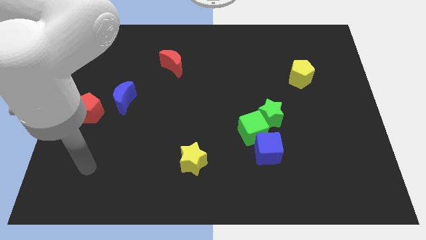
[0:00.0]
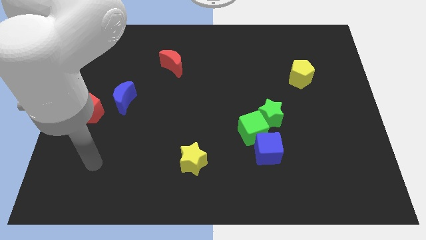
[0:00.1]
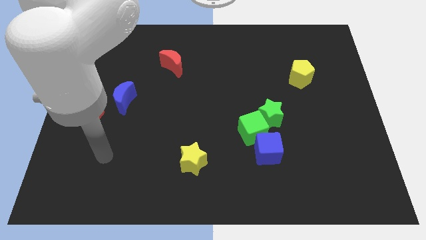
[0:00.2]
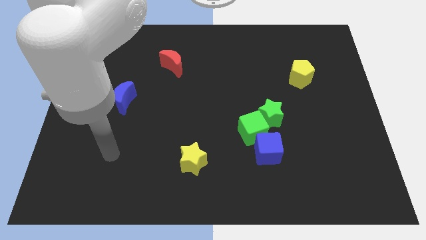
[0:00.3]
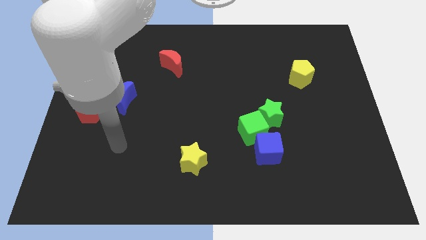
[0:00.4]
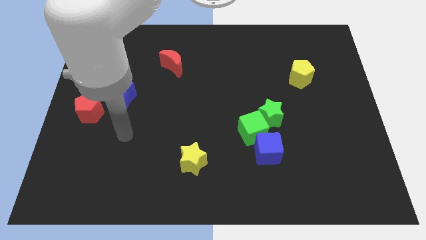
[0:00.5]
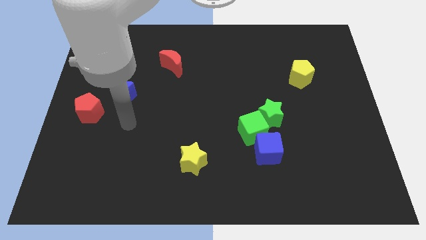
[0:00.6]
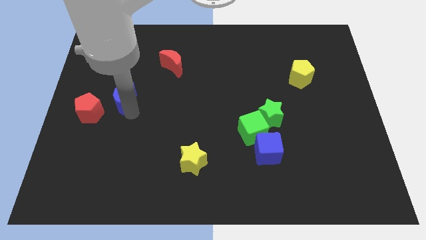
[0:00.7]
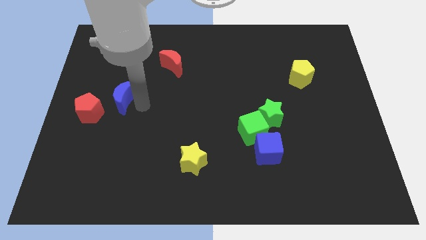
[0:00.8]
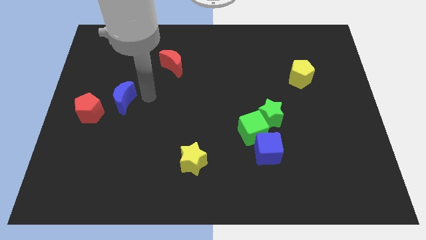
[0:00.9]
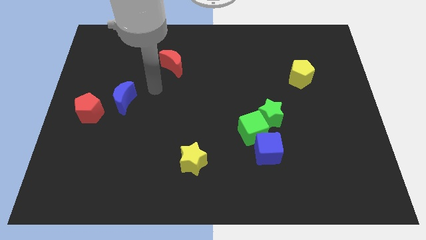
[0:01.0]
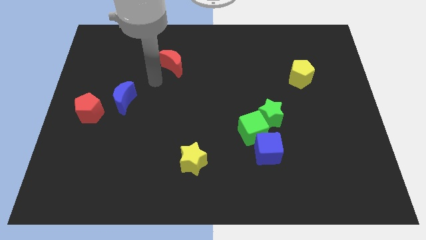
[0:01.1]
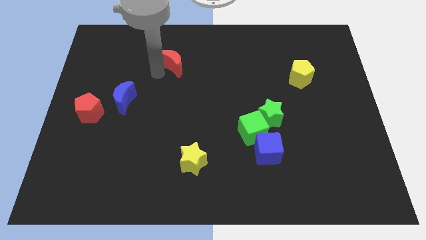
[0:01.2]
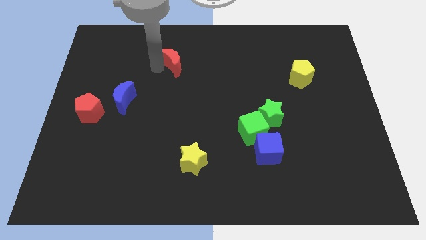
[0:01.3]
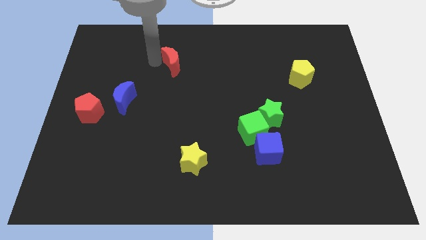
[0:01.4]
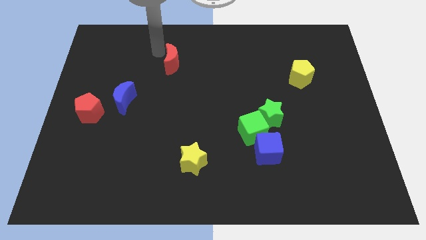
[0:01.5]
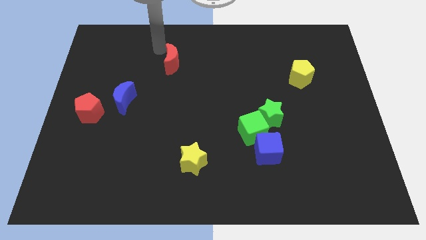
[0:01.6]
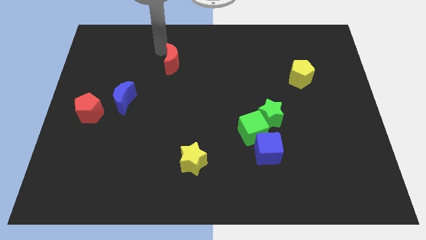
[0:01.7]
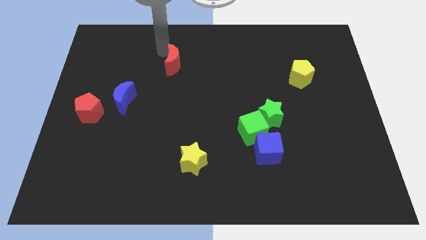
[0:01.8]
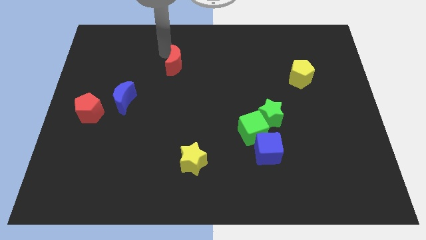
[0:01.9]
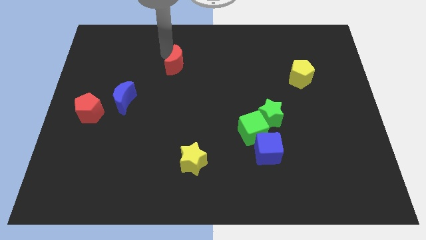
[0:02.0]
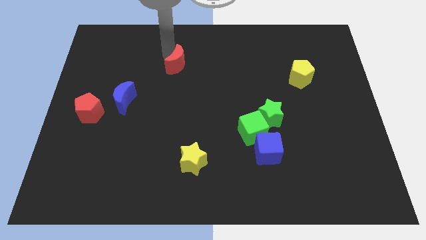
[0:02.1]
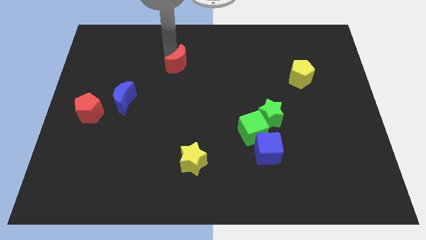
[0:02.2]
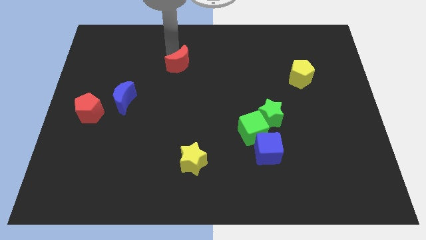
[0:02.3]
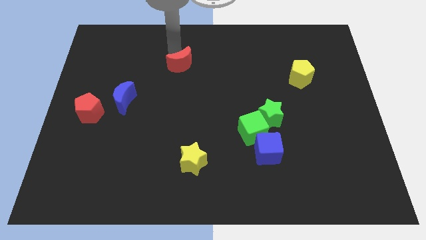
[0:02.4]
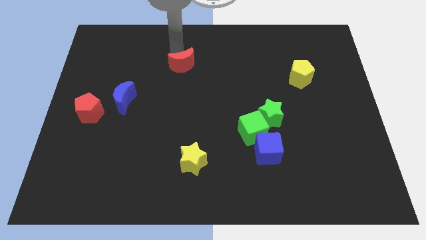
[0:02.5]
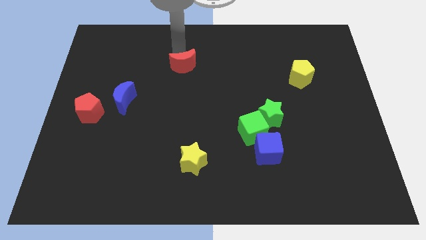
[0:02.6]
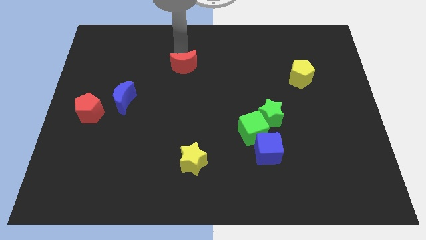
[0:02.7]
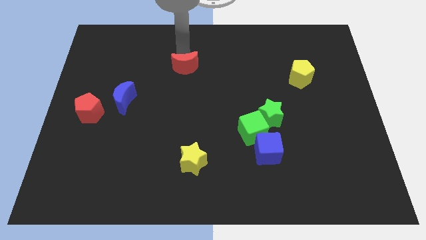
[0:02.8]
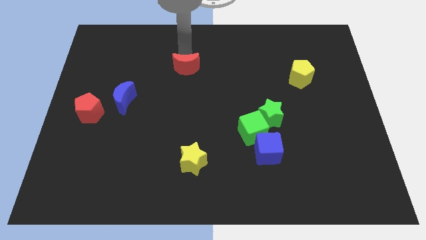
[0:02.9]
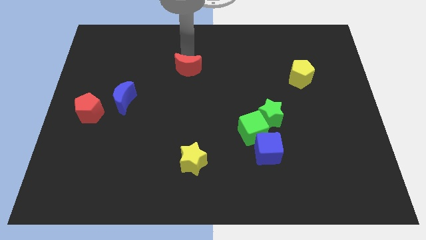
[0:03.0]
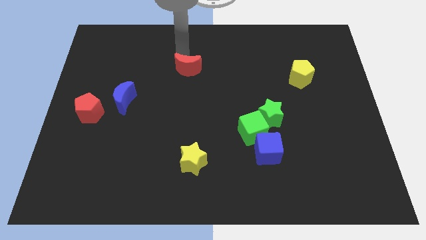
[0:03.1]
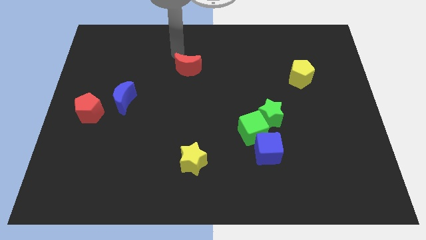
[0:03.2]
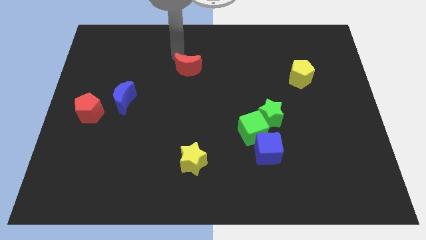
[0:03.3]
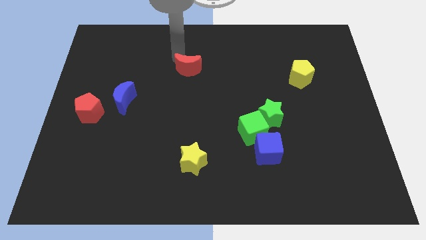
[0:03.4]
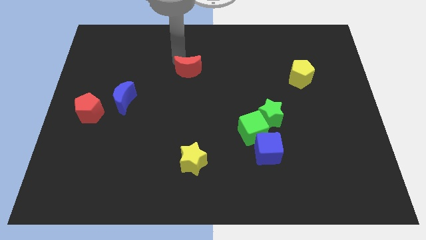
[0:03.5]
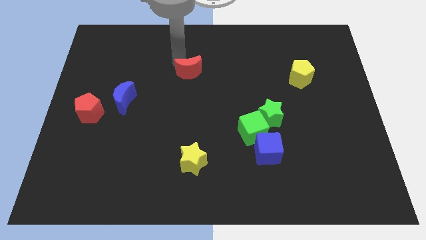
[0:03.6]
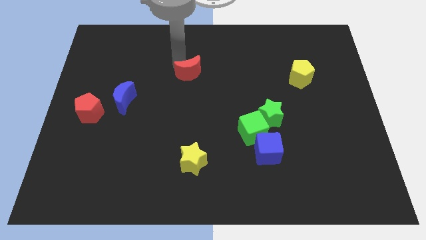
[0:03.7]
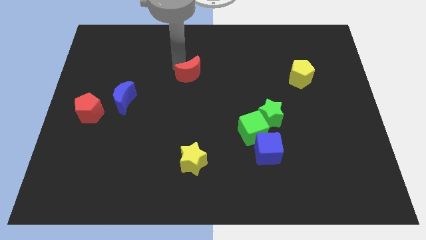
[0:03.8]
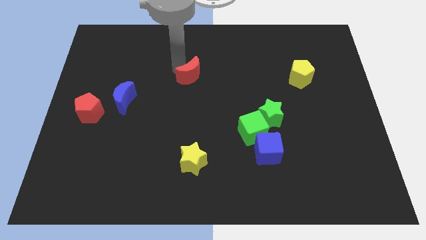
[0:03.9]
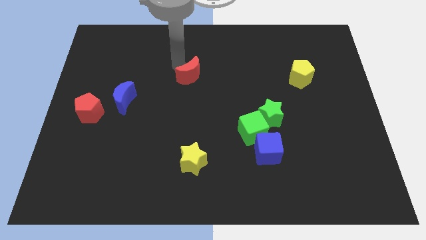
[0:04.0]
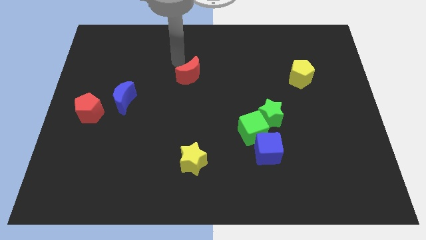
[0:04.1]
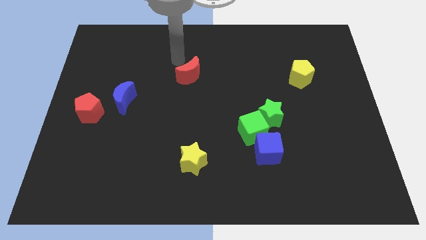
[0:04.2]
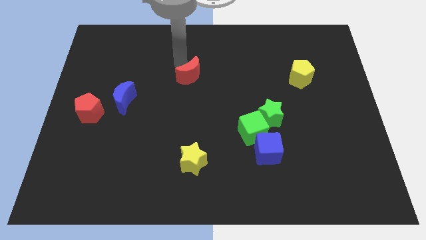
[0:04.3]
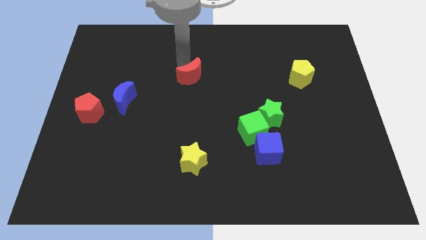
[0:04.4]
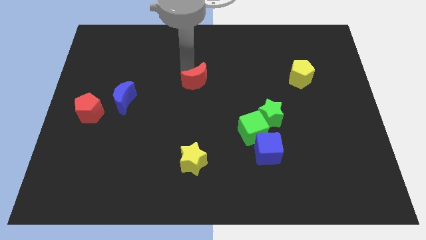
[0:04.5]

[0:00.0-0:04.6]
slightly push the red moon down and to the right diagonally

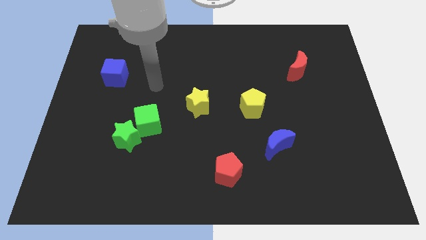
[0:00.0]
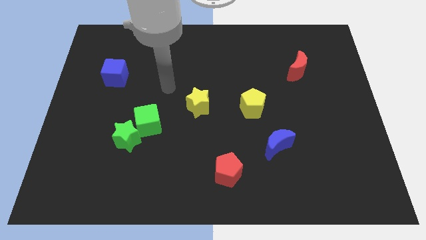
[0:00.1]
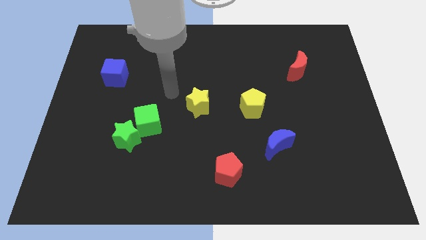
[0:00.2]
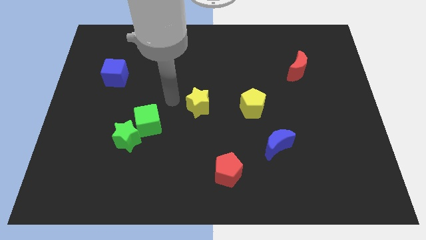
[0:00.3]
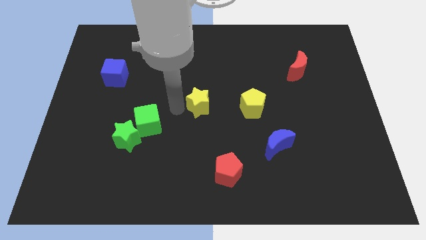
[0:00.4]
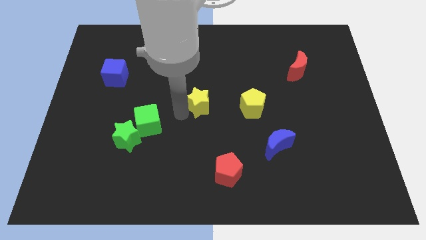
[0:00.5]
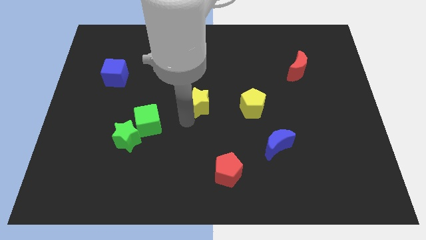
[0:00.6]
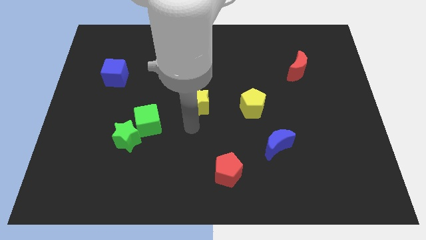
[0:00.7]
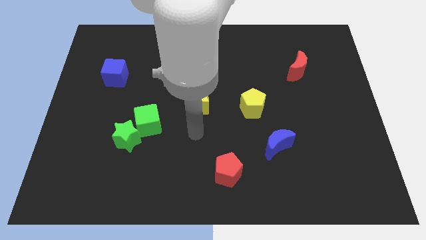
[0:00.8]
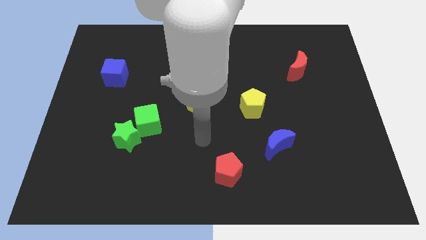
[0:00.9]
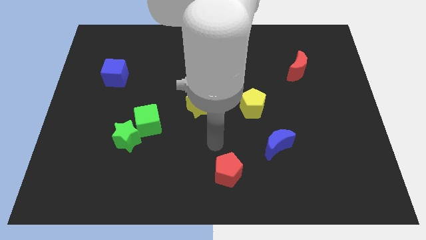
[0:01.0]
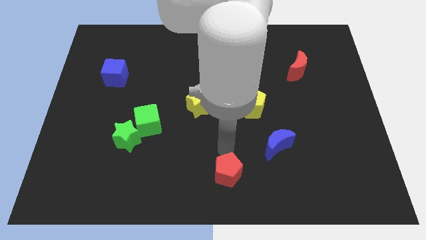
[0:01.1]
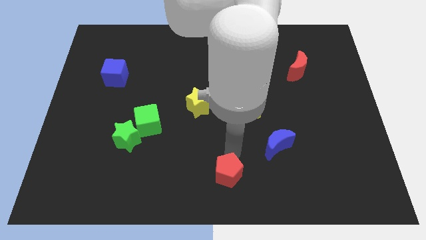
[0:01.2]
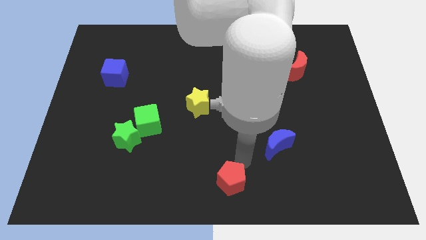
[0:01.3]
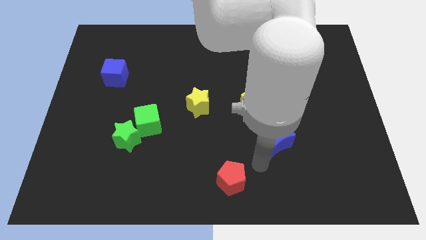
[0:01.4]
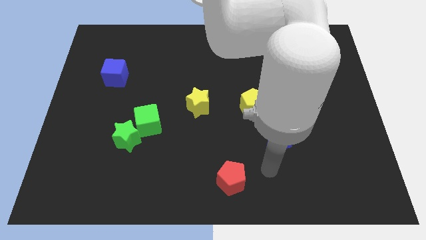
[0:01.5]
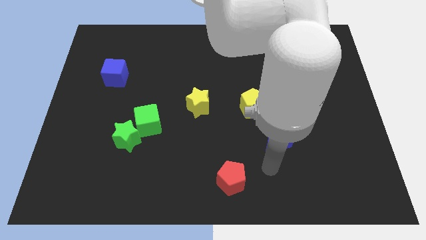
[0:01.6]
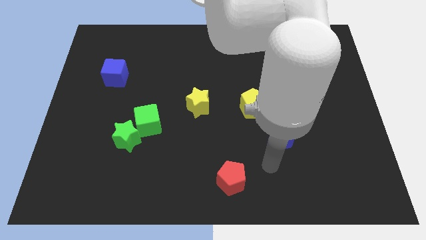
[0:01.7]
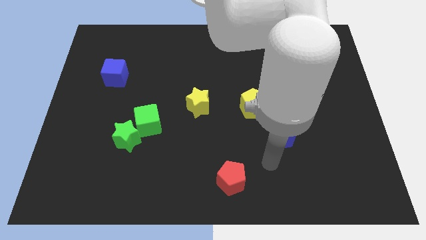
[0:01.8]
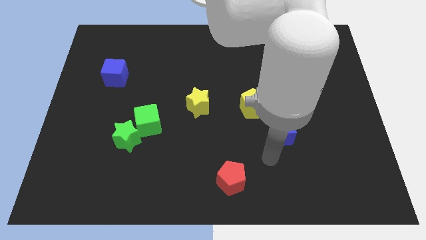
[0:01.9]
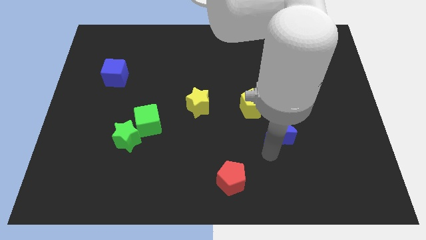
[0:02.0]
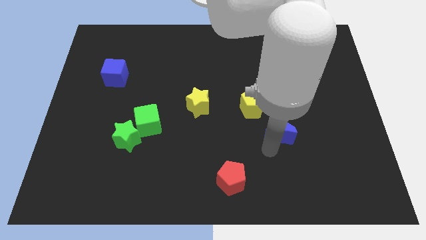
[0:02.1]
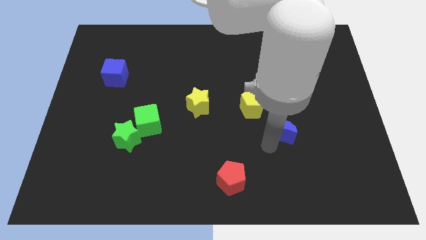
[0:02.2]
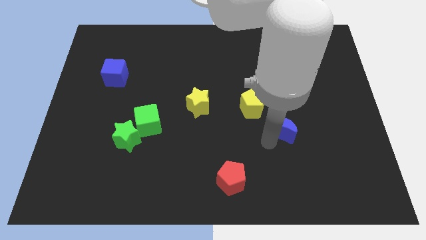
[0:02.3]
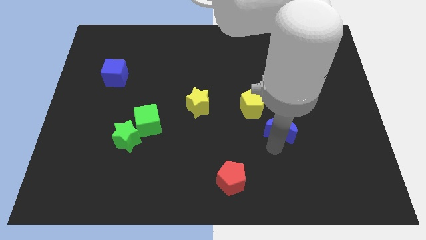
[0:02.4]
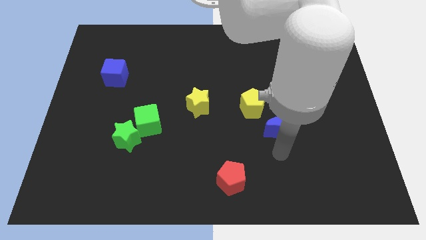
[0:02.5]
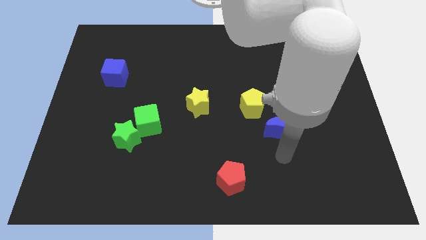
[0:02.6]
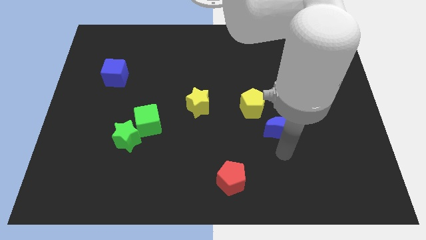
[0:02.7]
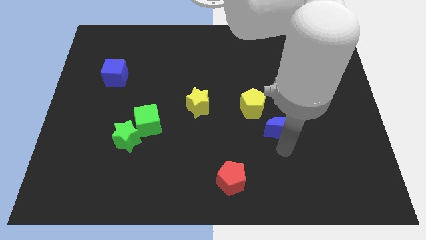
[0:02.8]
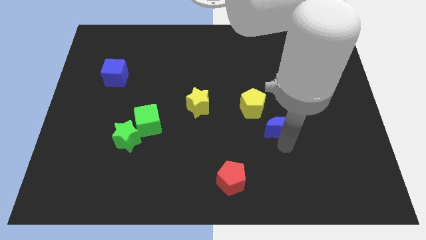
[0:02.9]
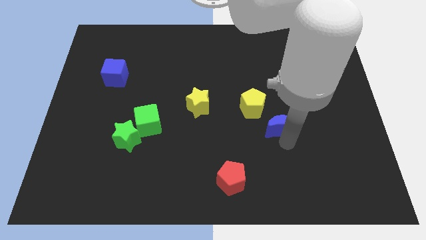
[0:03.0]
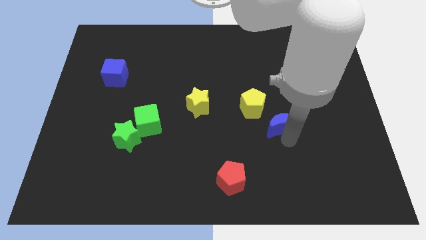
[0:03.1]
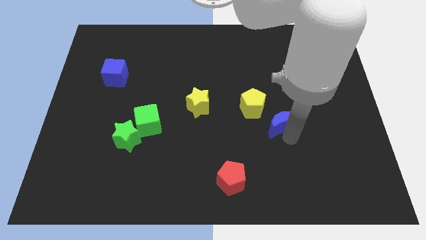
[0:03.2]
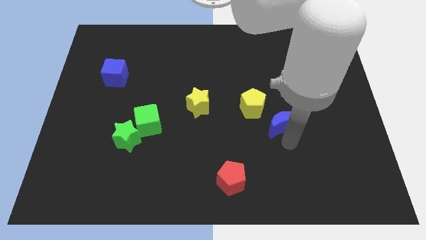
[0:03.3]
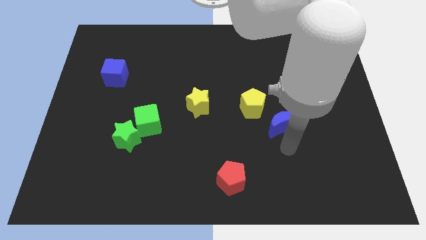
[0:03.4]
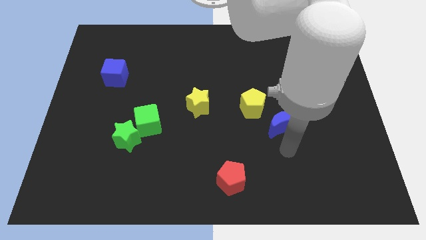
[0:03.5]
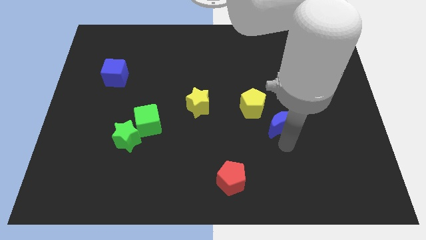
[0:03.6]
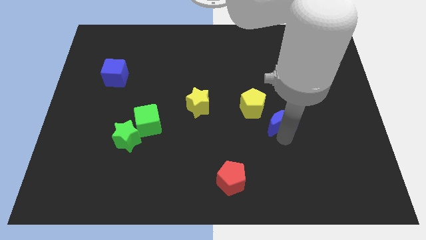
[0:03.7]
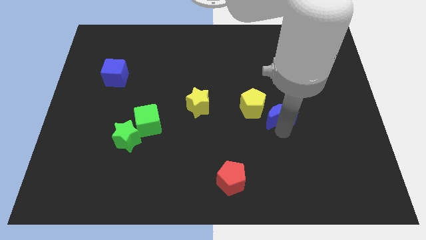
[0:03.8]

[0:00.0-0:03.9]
slightly push the blue moon up
